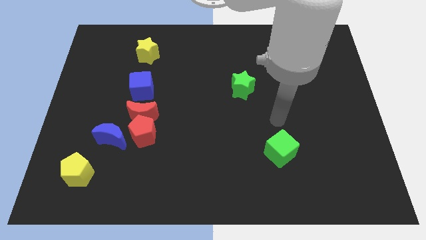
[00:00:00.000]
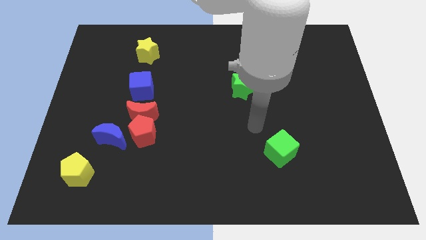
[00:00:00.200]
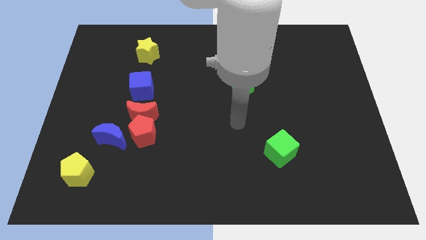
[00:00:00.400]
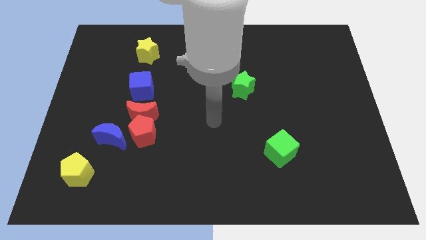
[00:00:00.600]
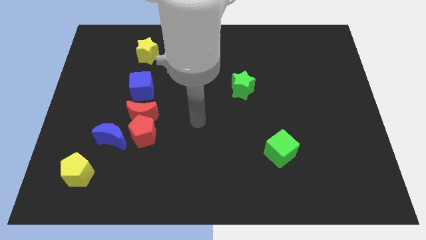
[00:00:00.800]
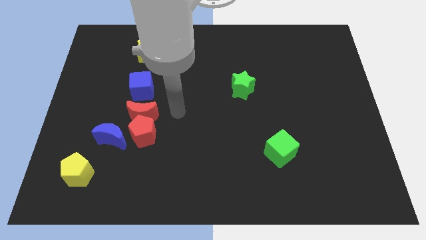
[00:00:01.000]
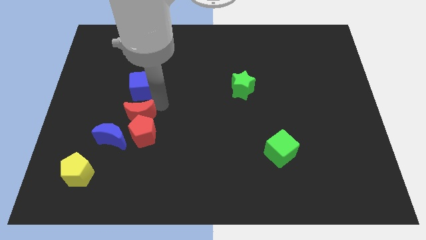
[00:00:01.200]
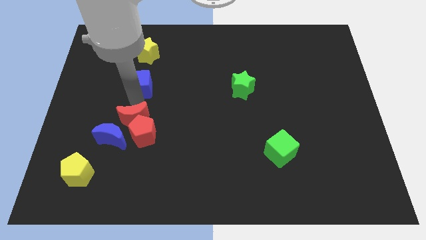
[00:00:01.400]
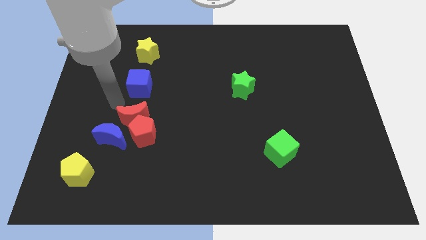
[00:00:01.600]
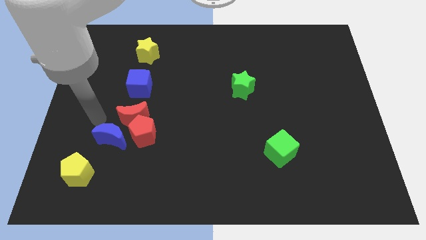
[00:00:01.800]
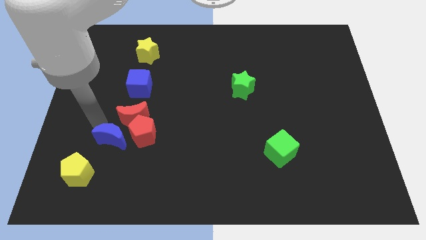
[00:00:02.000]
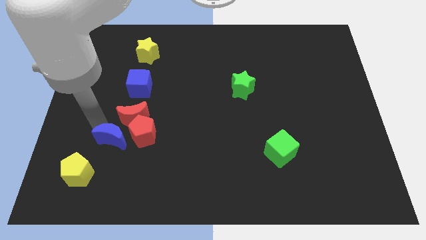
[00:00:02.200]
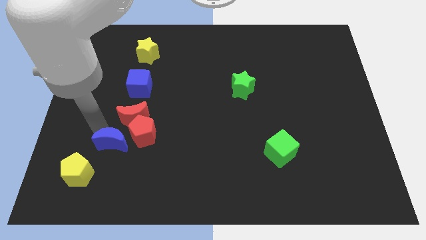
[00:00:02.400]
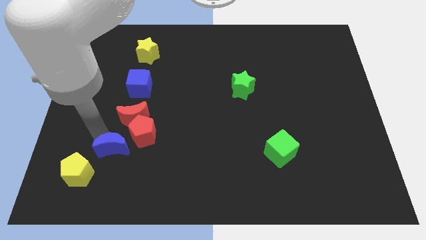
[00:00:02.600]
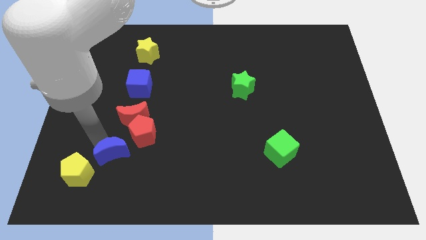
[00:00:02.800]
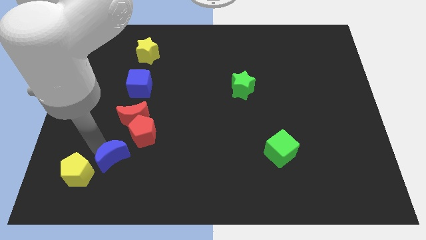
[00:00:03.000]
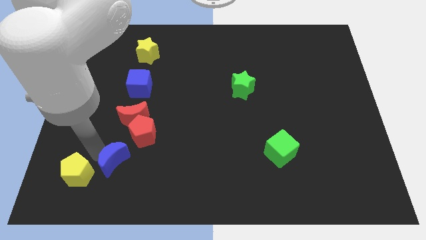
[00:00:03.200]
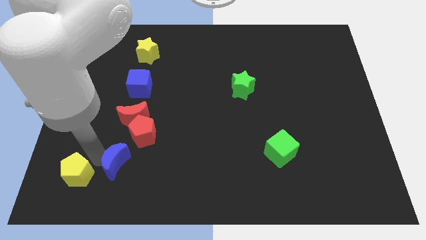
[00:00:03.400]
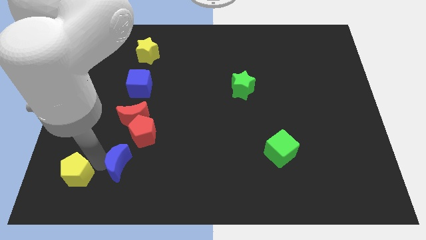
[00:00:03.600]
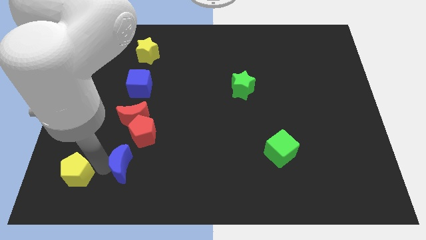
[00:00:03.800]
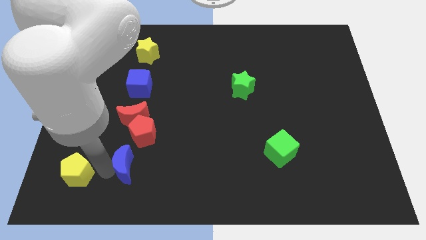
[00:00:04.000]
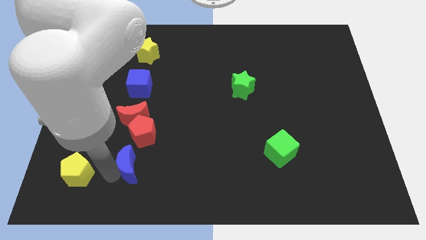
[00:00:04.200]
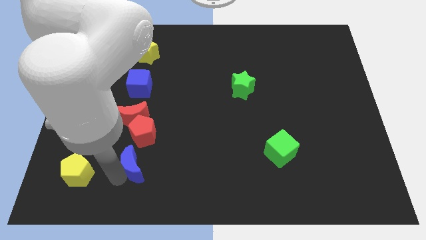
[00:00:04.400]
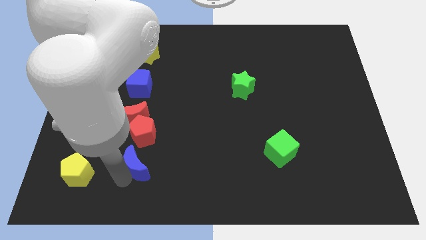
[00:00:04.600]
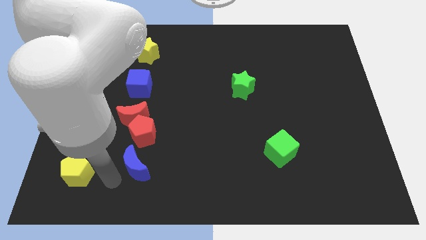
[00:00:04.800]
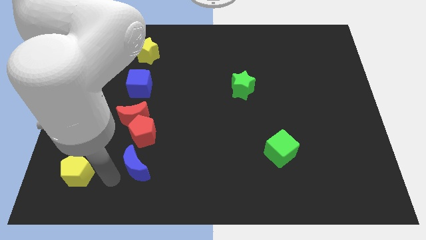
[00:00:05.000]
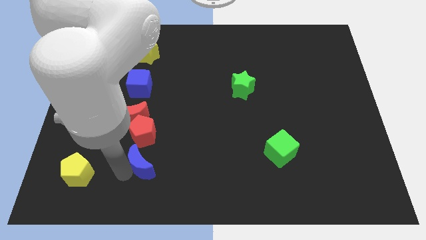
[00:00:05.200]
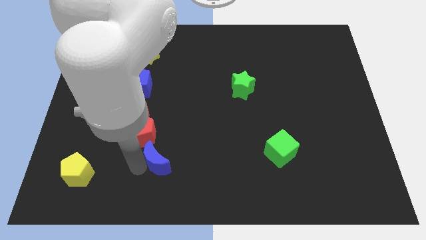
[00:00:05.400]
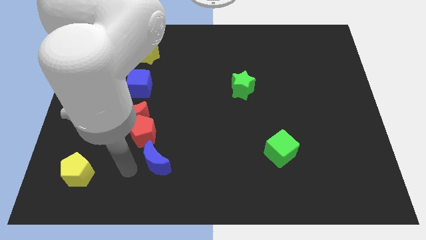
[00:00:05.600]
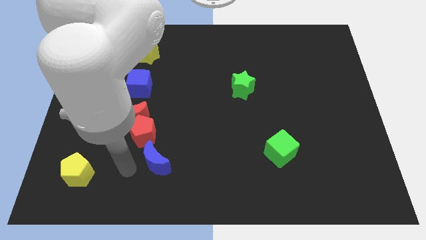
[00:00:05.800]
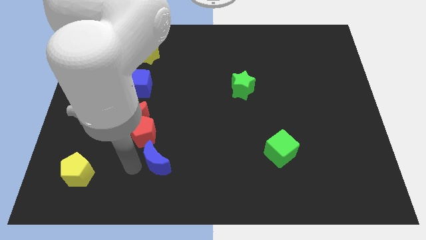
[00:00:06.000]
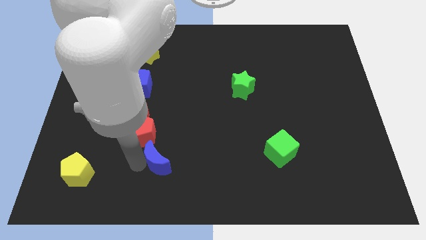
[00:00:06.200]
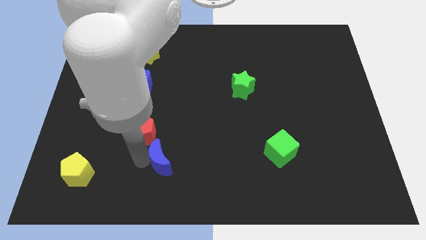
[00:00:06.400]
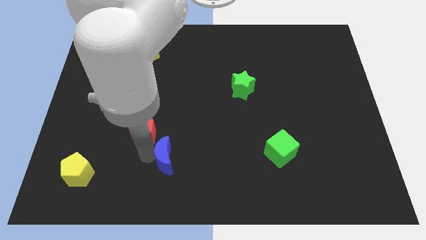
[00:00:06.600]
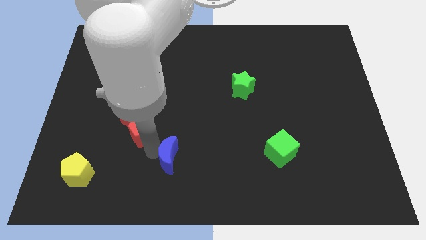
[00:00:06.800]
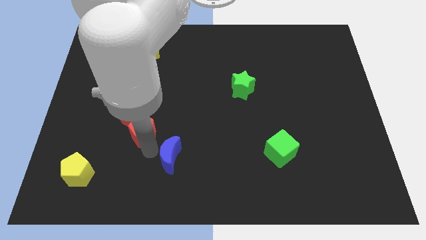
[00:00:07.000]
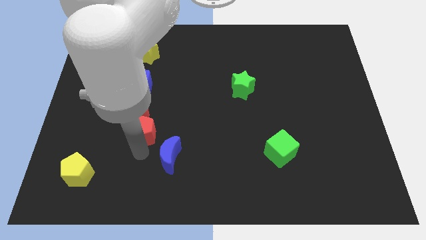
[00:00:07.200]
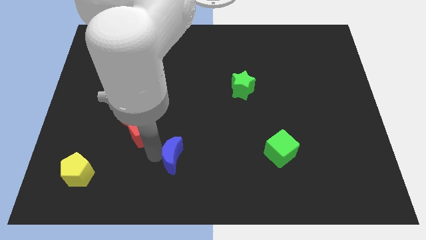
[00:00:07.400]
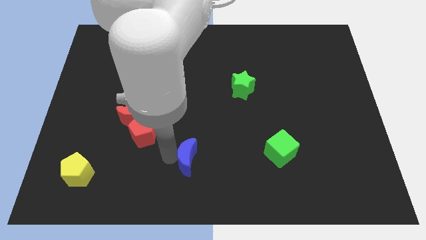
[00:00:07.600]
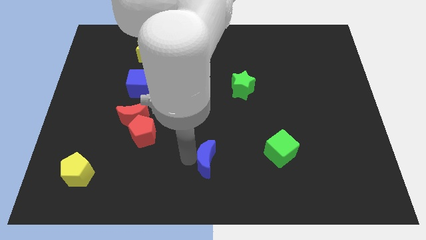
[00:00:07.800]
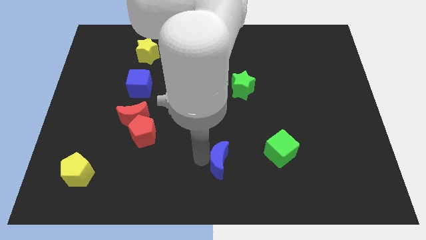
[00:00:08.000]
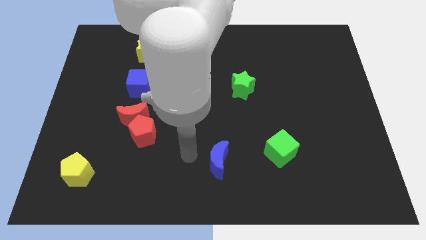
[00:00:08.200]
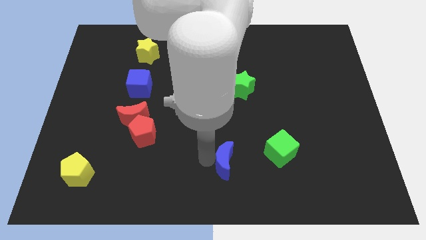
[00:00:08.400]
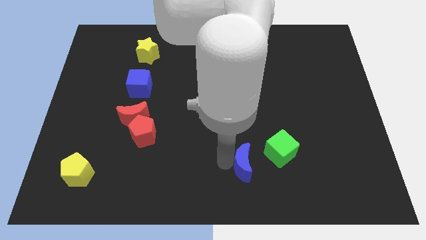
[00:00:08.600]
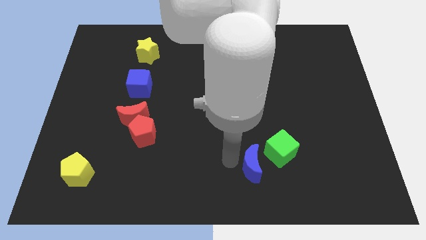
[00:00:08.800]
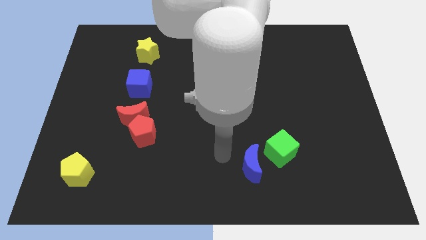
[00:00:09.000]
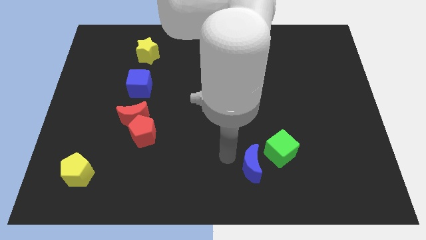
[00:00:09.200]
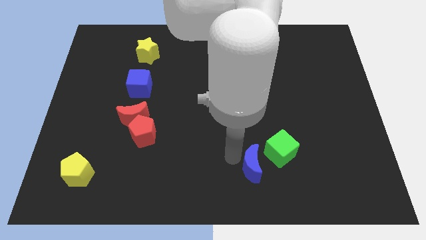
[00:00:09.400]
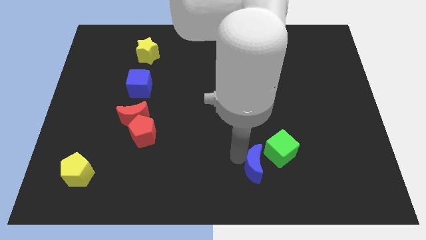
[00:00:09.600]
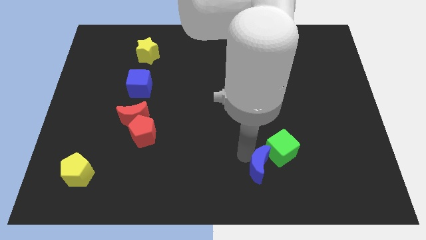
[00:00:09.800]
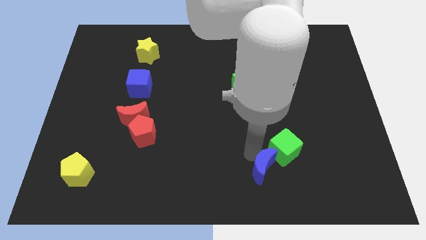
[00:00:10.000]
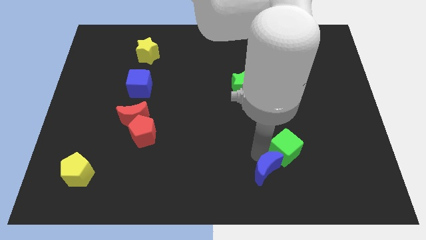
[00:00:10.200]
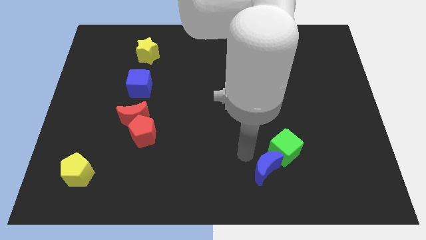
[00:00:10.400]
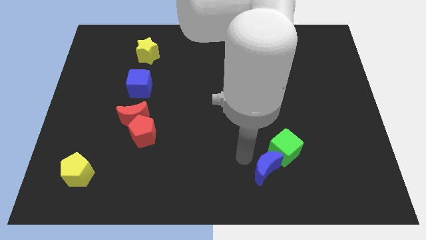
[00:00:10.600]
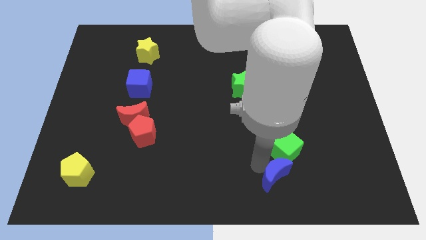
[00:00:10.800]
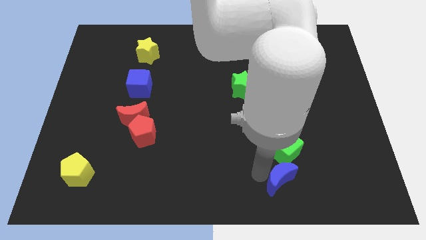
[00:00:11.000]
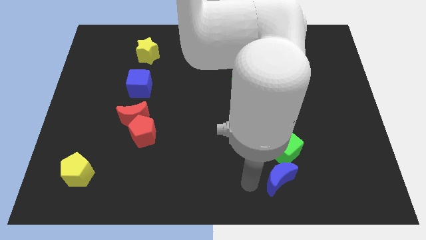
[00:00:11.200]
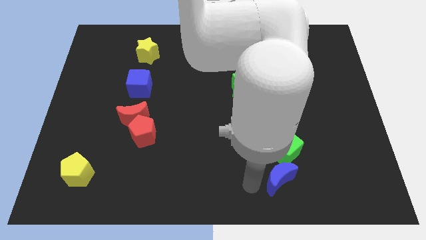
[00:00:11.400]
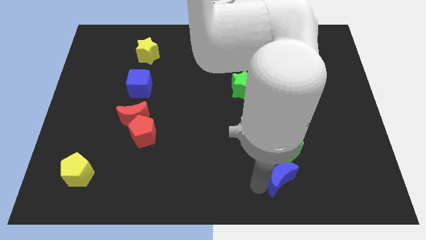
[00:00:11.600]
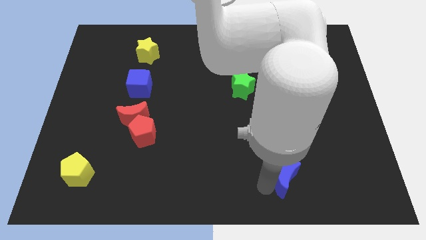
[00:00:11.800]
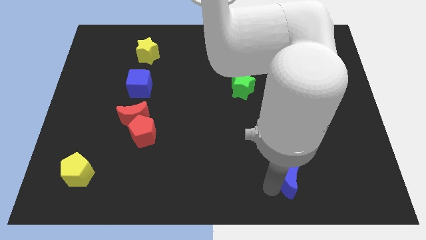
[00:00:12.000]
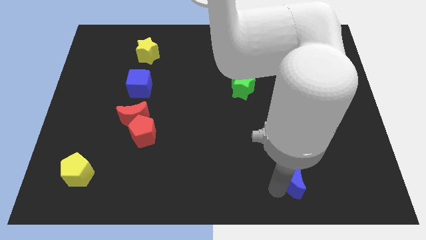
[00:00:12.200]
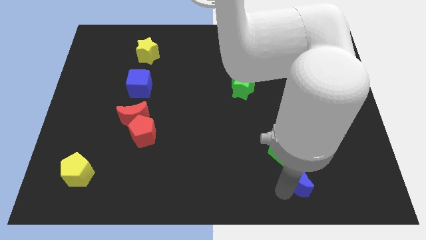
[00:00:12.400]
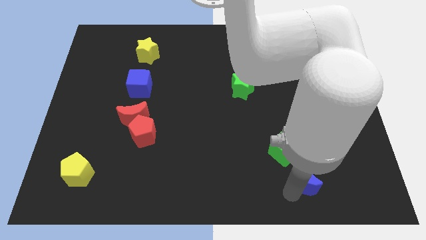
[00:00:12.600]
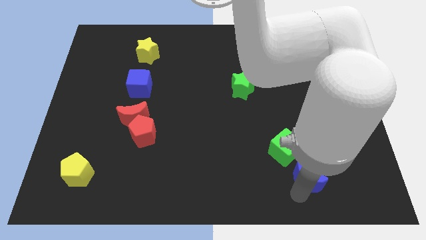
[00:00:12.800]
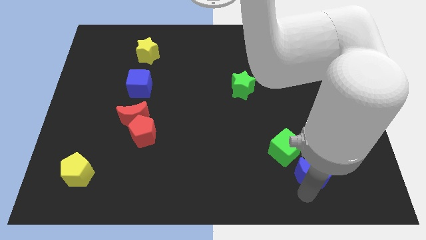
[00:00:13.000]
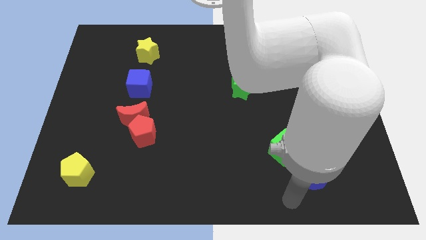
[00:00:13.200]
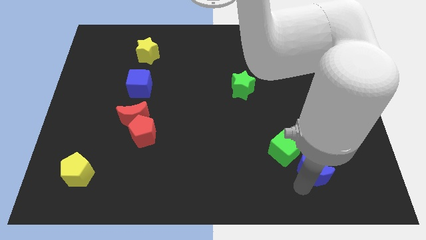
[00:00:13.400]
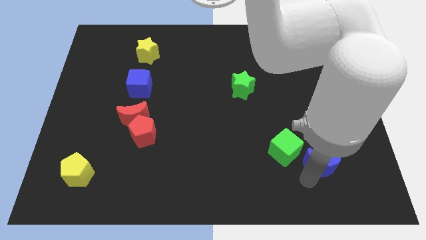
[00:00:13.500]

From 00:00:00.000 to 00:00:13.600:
move the blue moon right of the green cube
